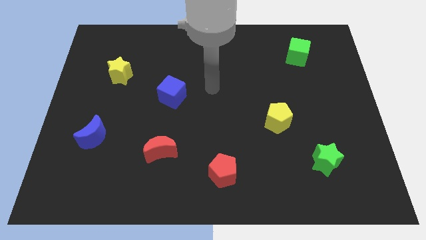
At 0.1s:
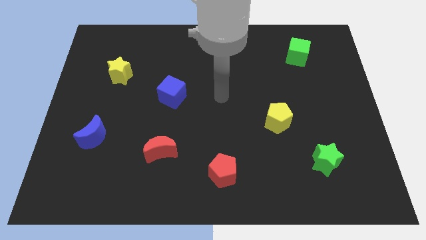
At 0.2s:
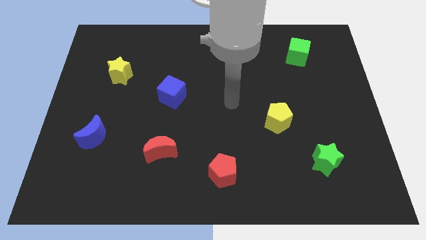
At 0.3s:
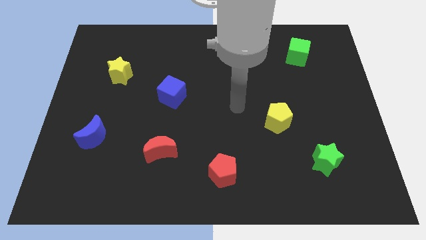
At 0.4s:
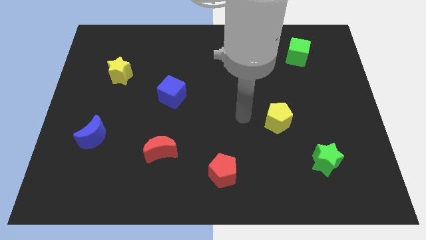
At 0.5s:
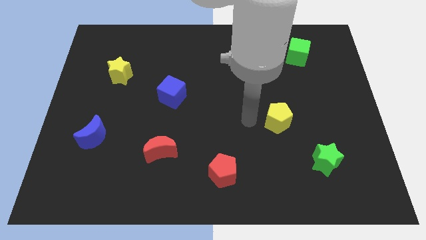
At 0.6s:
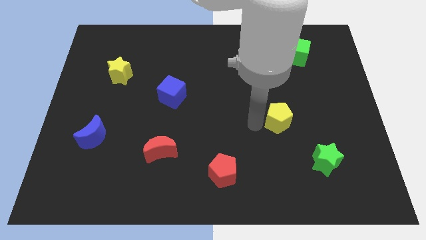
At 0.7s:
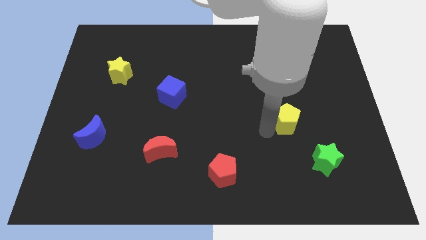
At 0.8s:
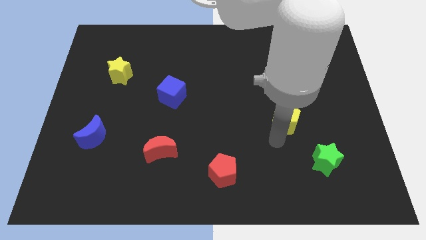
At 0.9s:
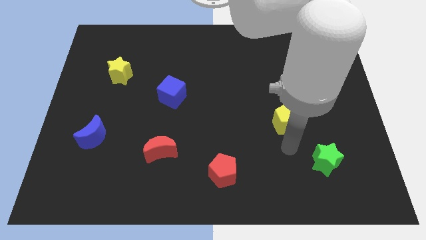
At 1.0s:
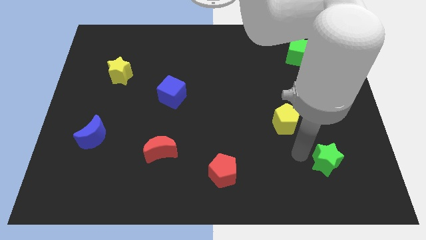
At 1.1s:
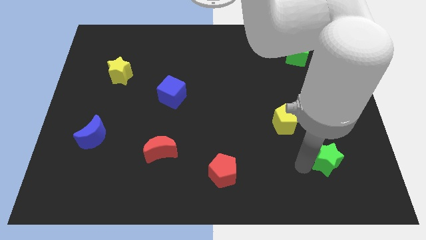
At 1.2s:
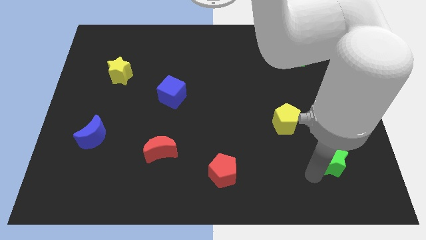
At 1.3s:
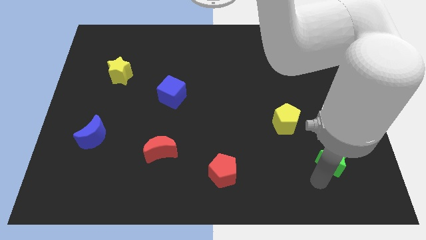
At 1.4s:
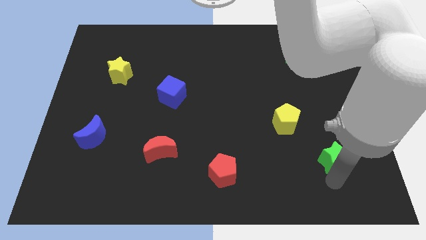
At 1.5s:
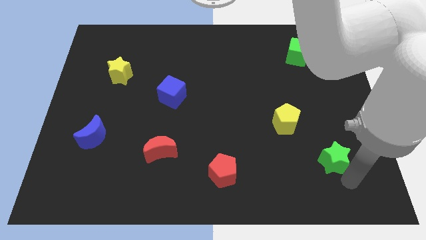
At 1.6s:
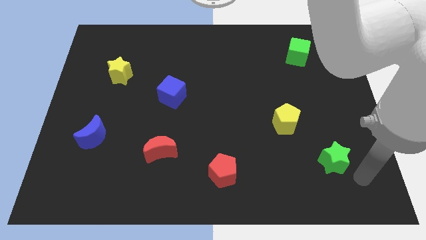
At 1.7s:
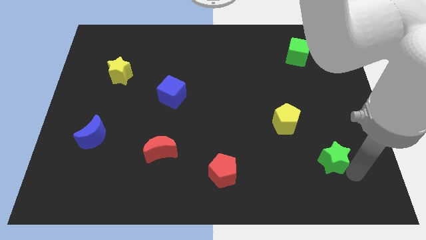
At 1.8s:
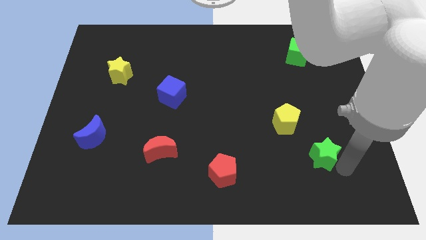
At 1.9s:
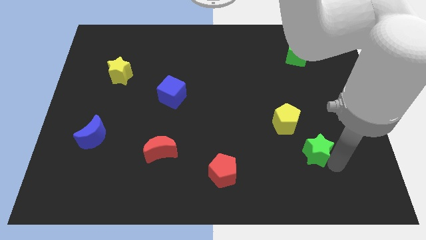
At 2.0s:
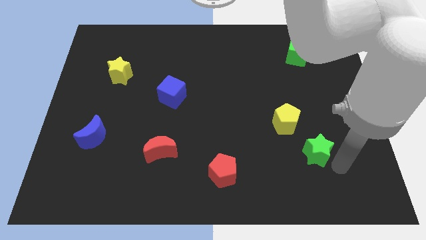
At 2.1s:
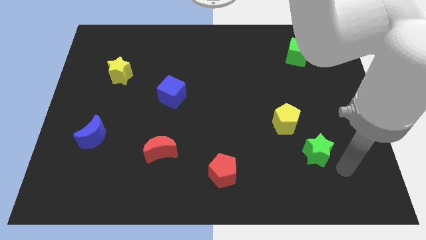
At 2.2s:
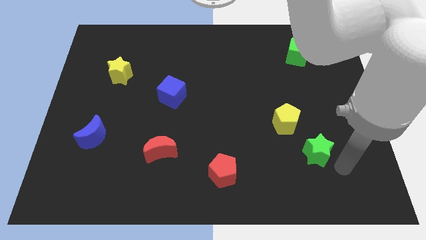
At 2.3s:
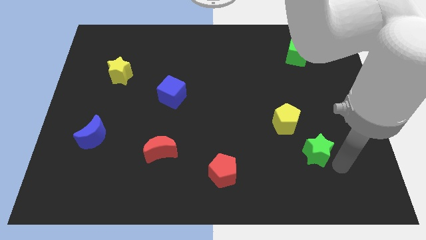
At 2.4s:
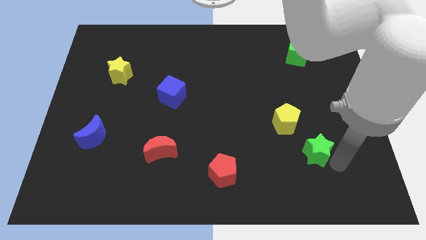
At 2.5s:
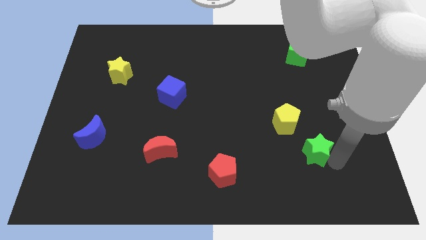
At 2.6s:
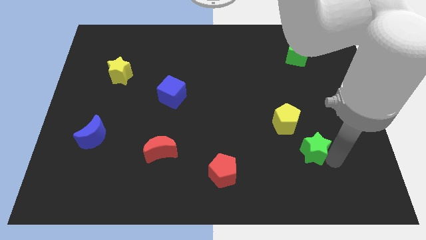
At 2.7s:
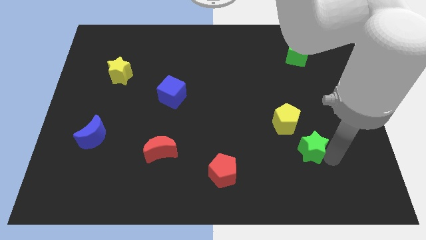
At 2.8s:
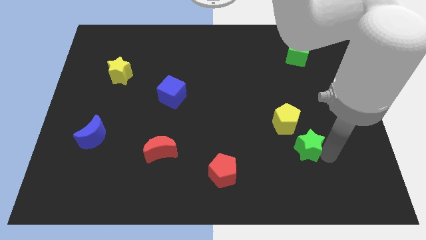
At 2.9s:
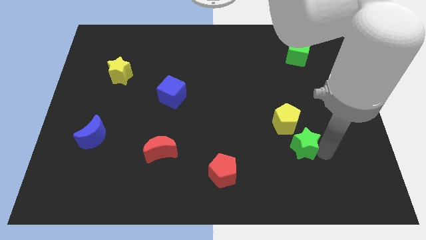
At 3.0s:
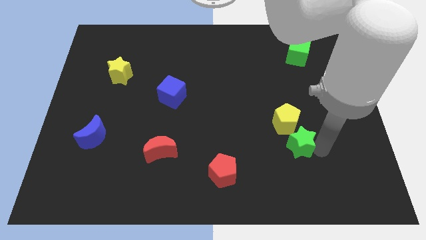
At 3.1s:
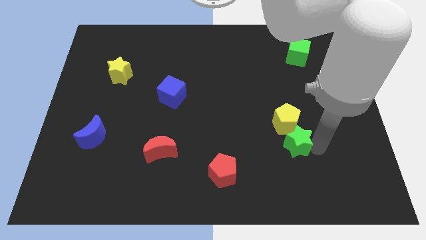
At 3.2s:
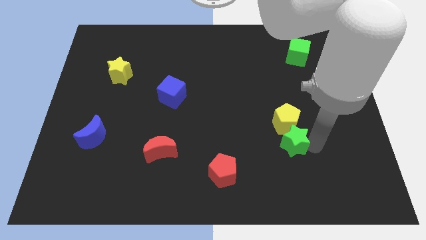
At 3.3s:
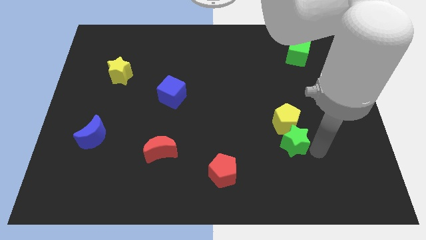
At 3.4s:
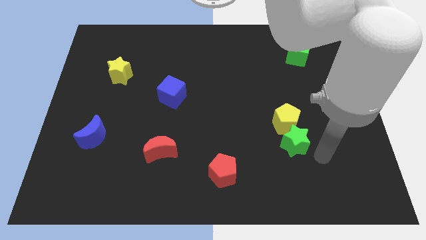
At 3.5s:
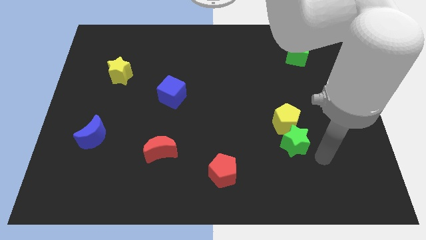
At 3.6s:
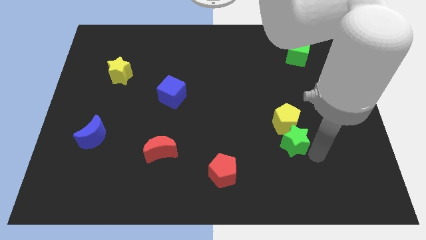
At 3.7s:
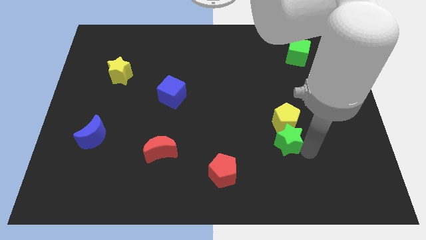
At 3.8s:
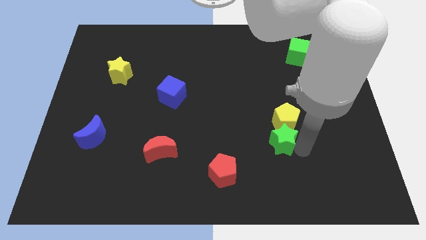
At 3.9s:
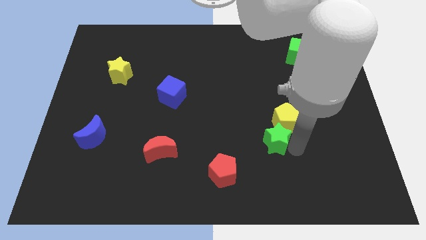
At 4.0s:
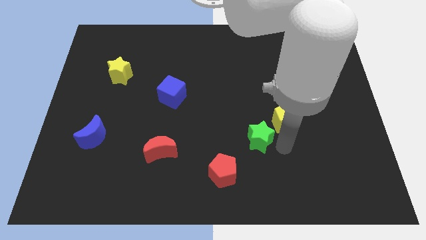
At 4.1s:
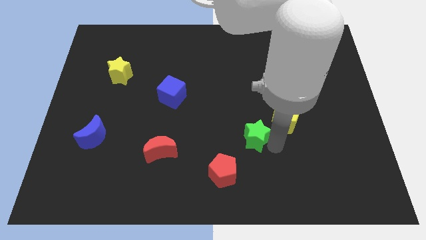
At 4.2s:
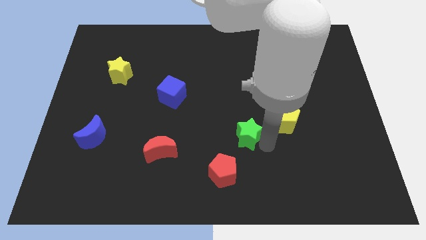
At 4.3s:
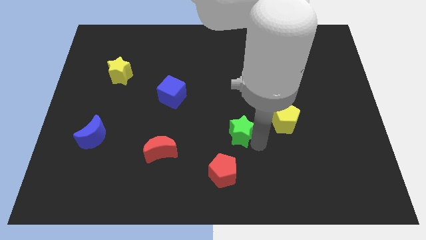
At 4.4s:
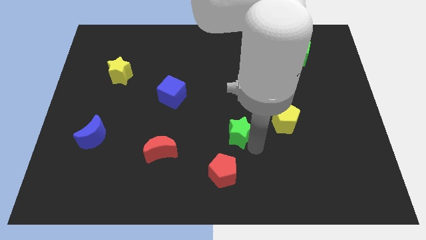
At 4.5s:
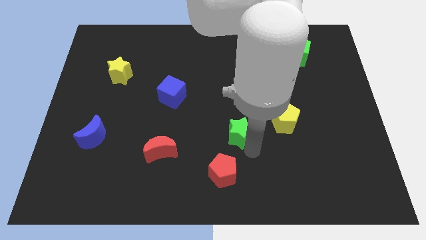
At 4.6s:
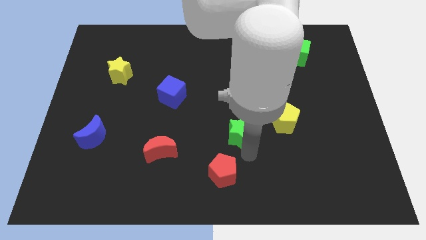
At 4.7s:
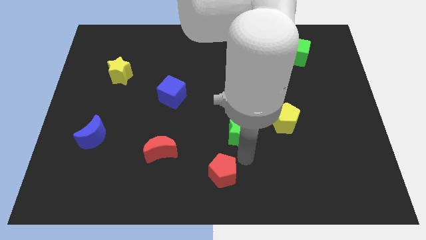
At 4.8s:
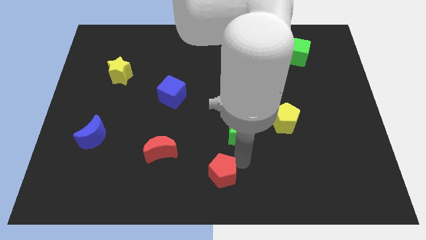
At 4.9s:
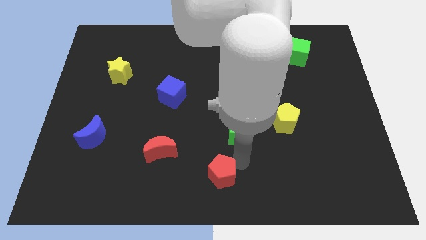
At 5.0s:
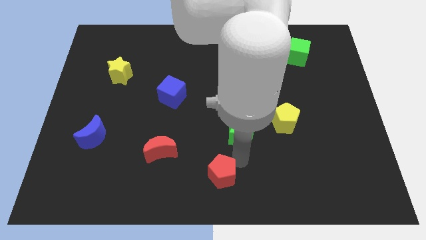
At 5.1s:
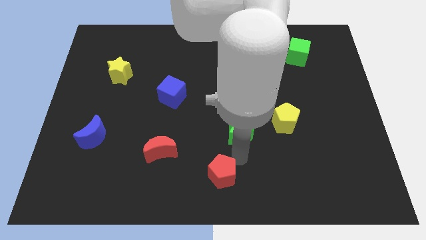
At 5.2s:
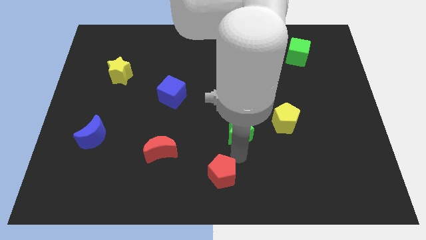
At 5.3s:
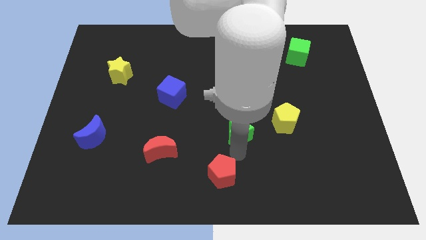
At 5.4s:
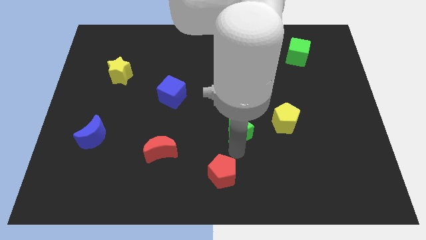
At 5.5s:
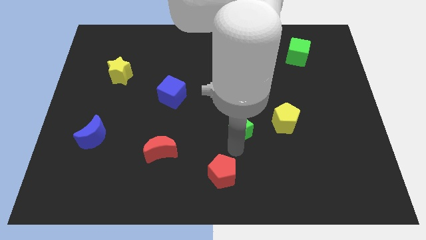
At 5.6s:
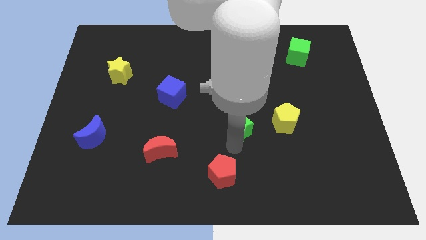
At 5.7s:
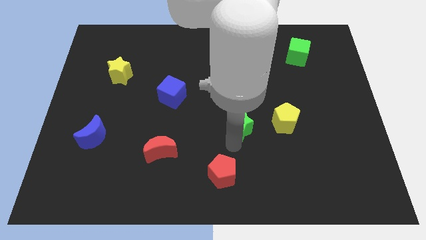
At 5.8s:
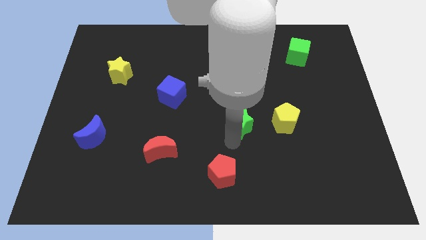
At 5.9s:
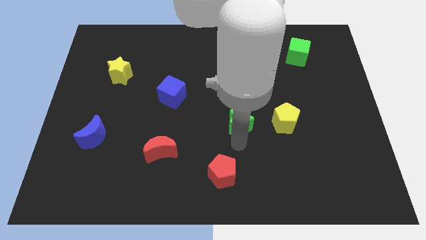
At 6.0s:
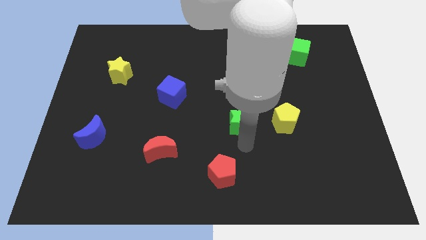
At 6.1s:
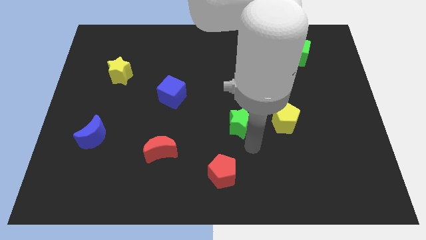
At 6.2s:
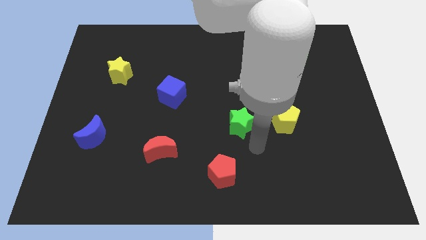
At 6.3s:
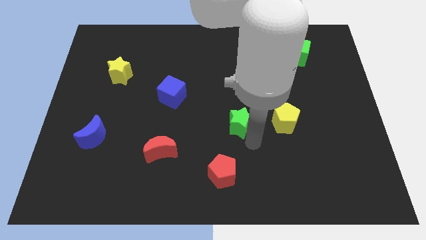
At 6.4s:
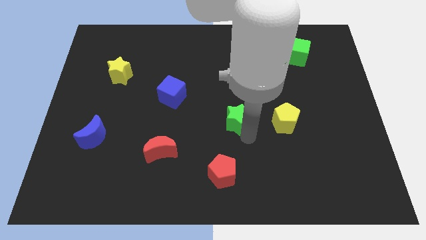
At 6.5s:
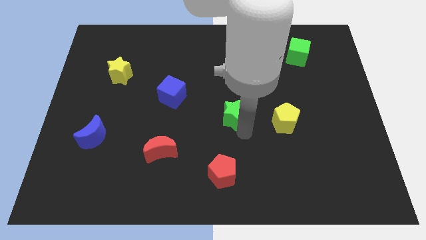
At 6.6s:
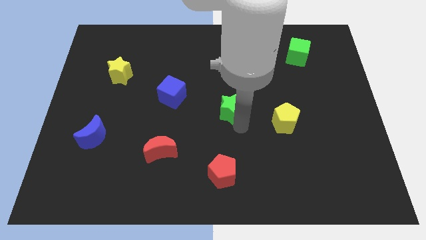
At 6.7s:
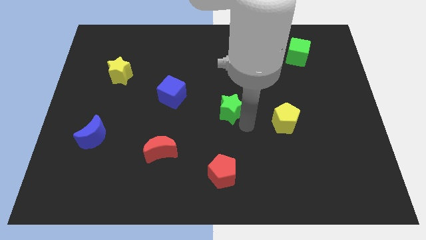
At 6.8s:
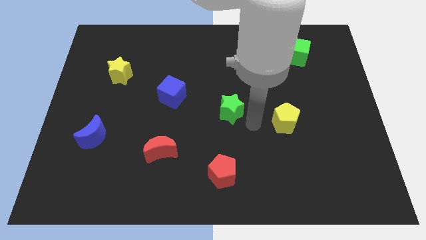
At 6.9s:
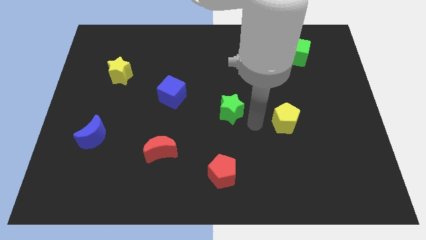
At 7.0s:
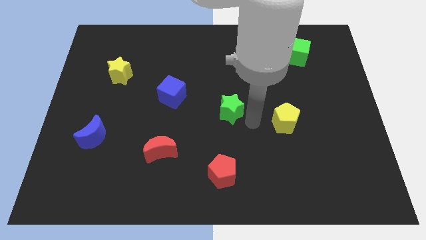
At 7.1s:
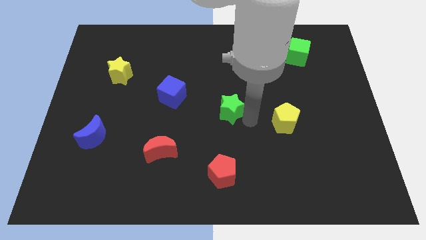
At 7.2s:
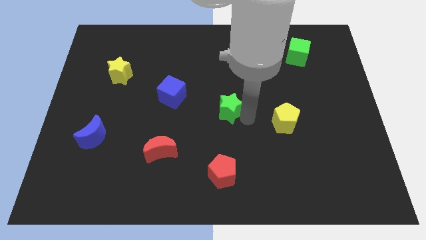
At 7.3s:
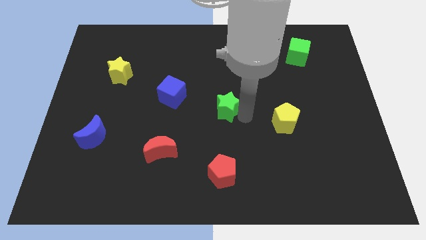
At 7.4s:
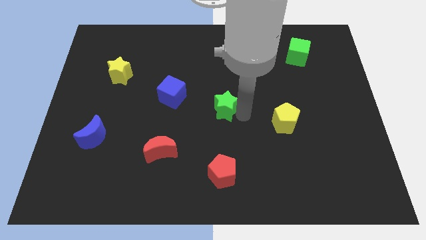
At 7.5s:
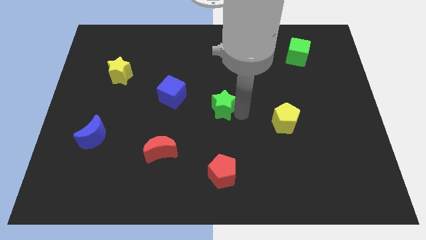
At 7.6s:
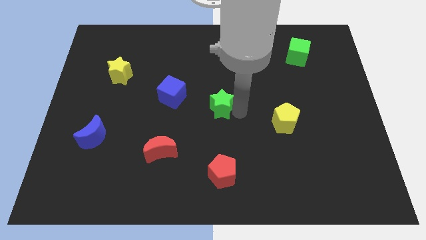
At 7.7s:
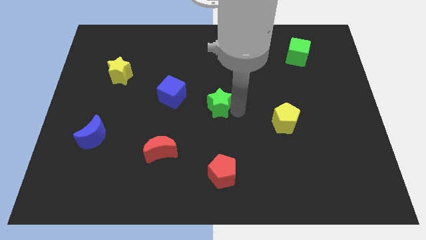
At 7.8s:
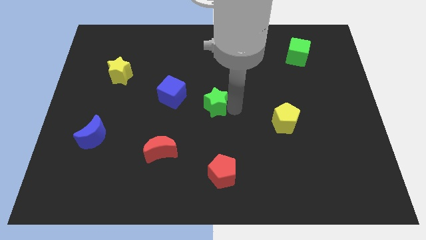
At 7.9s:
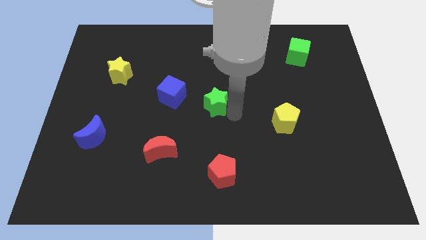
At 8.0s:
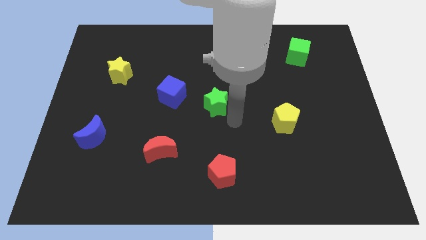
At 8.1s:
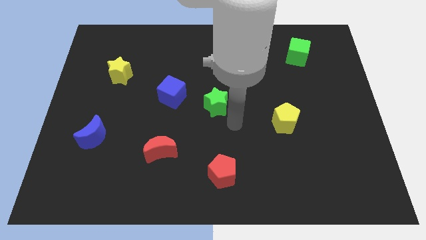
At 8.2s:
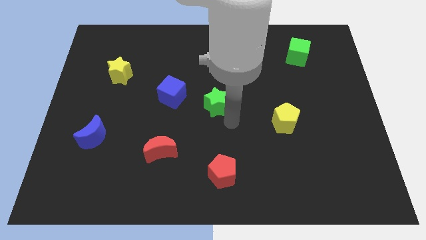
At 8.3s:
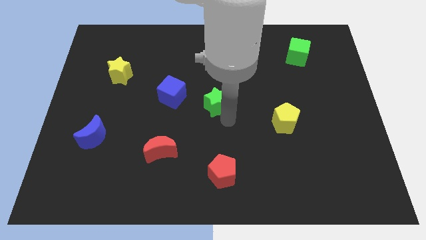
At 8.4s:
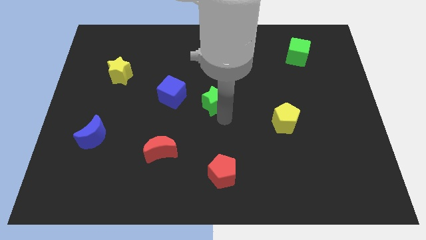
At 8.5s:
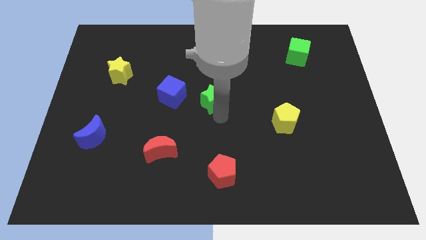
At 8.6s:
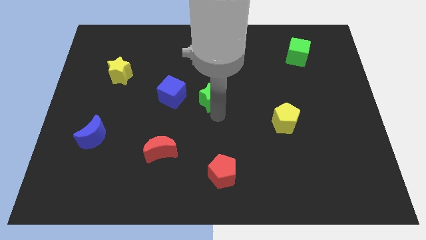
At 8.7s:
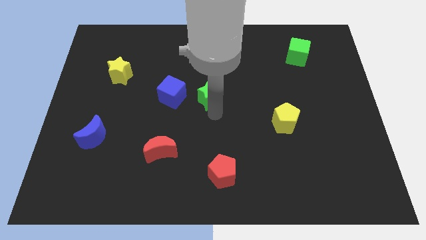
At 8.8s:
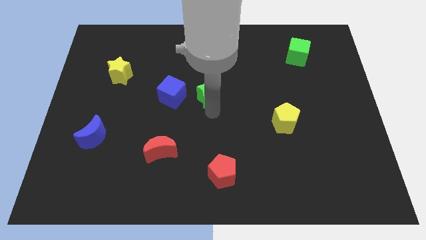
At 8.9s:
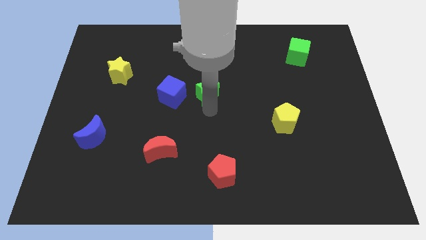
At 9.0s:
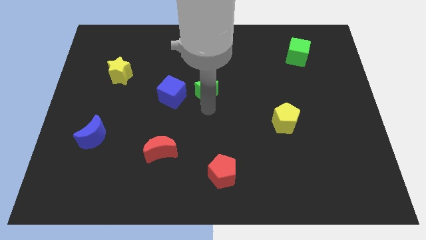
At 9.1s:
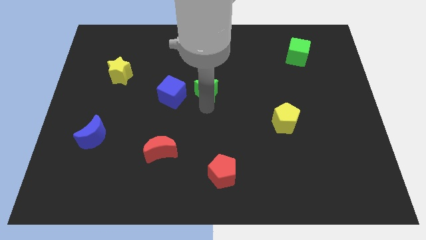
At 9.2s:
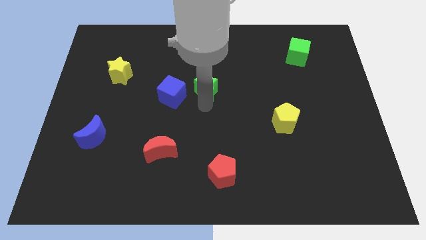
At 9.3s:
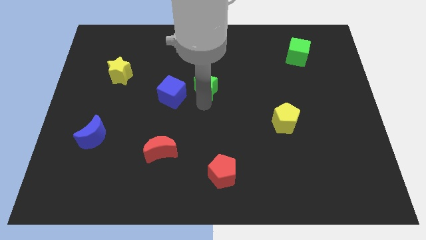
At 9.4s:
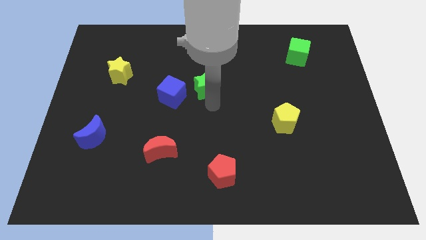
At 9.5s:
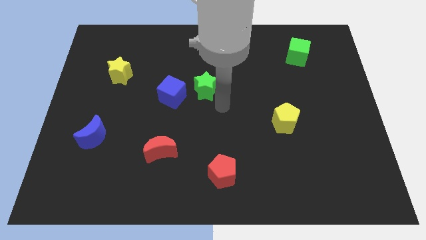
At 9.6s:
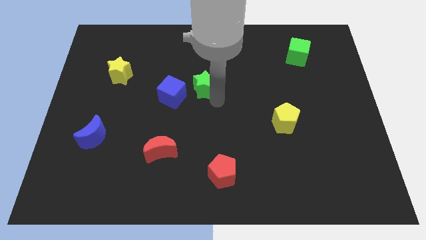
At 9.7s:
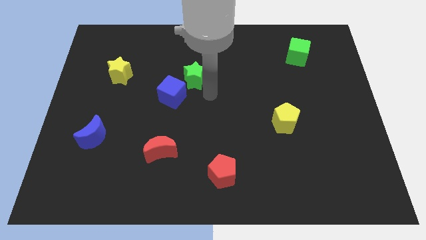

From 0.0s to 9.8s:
move the green star to the top of the blue cube
